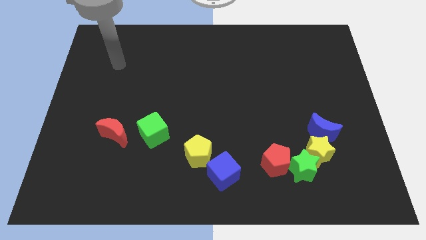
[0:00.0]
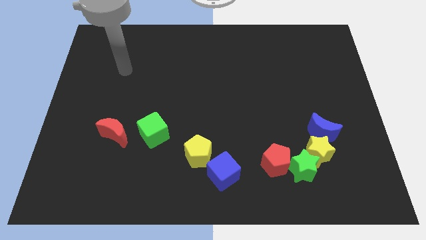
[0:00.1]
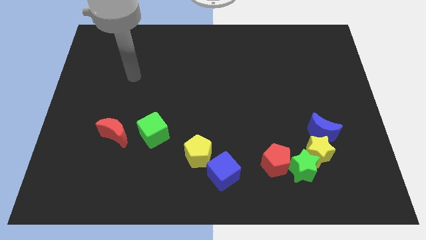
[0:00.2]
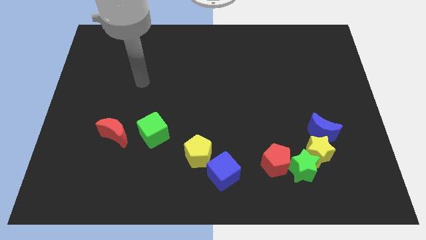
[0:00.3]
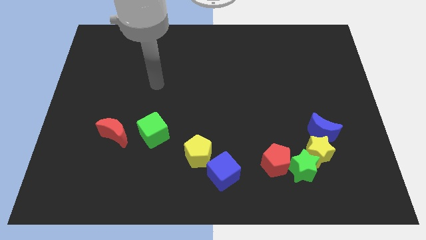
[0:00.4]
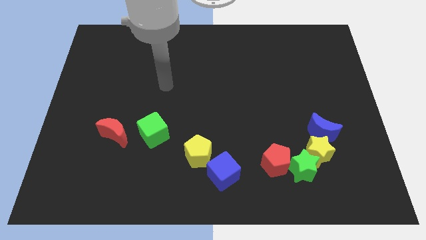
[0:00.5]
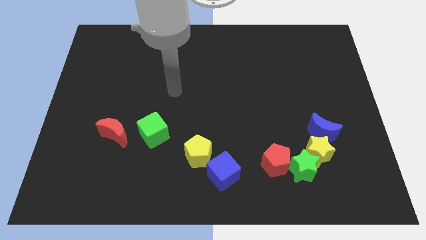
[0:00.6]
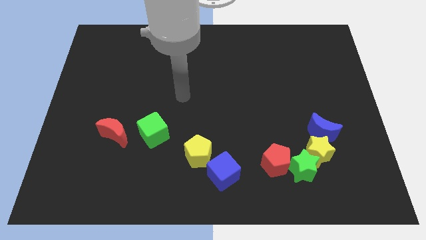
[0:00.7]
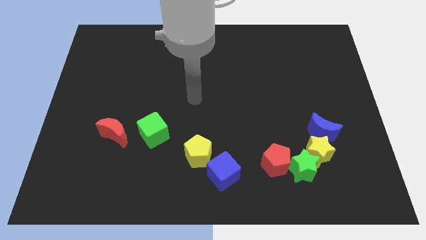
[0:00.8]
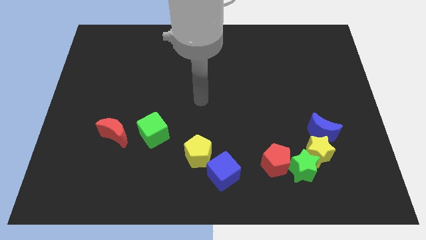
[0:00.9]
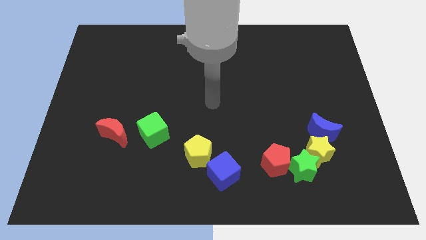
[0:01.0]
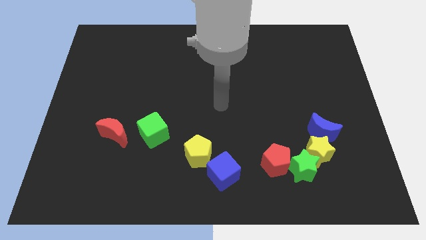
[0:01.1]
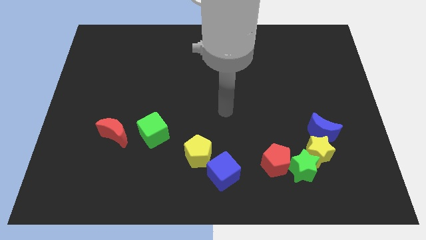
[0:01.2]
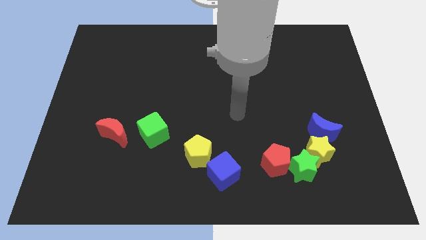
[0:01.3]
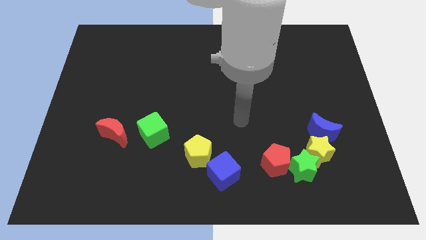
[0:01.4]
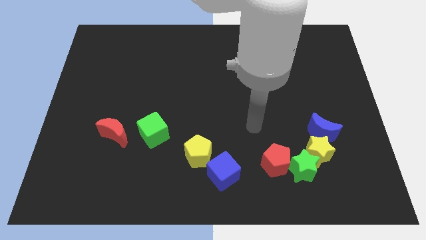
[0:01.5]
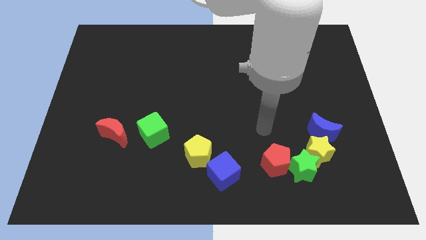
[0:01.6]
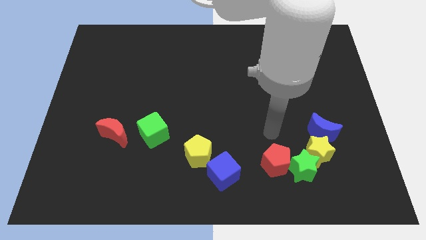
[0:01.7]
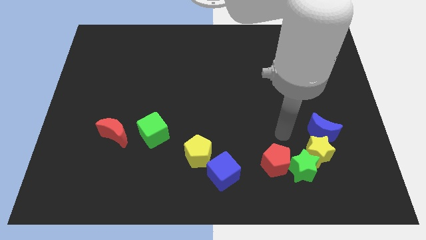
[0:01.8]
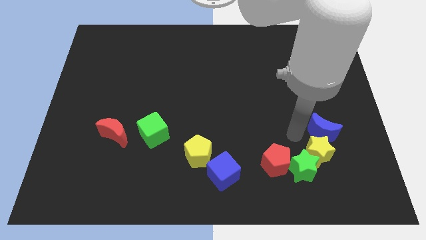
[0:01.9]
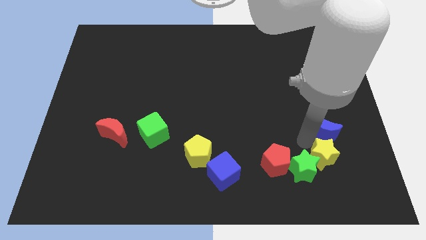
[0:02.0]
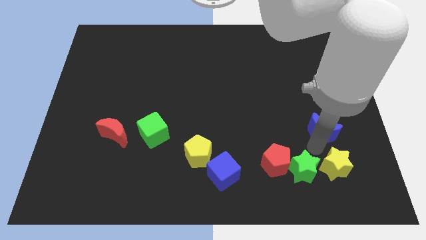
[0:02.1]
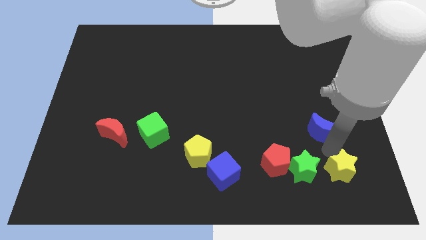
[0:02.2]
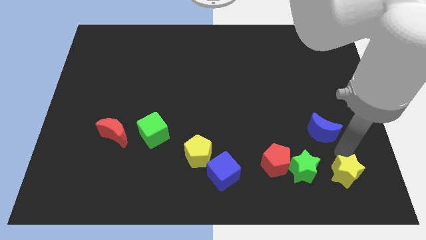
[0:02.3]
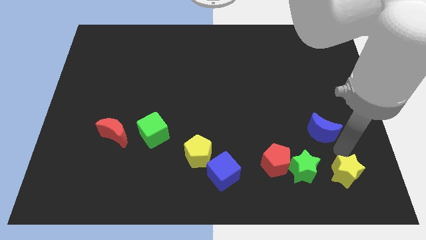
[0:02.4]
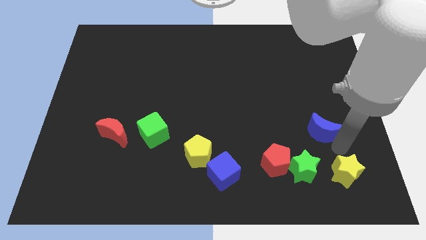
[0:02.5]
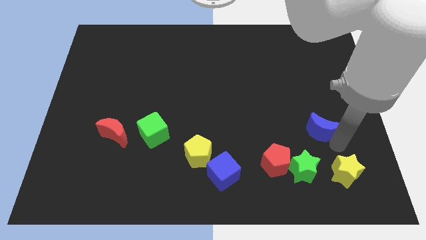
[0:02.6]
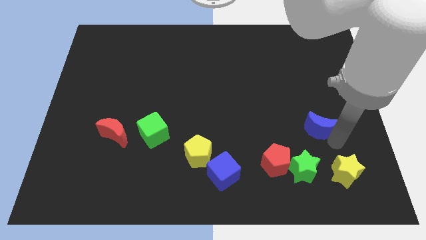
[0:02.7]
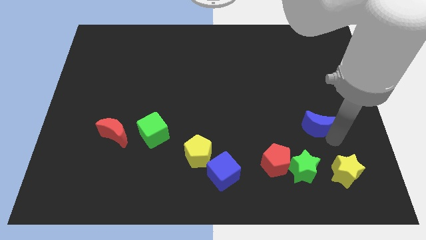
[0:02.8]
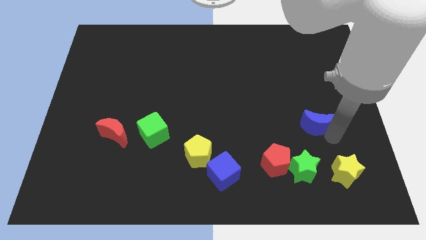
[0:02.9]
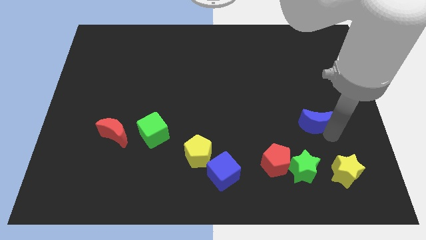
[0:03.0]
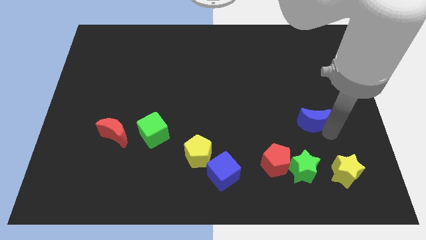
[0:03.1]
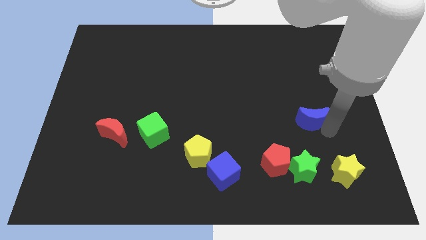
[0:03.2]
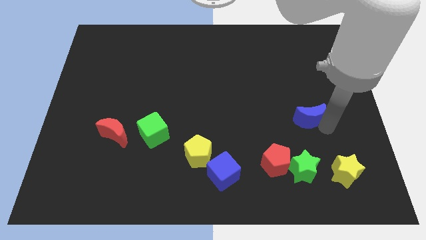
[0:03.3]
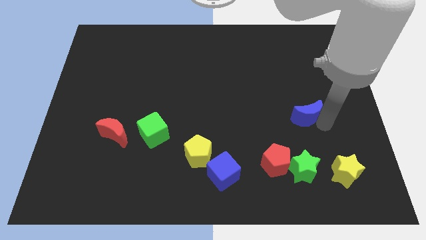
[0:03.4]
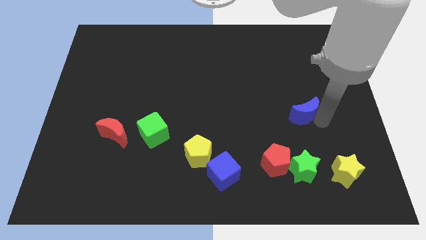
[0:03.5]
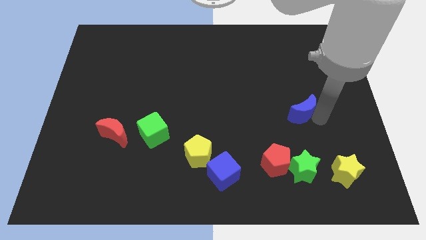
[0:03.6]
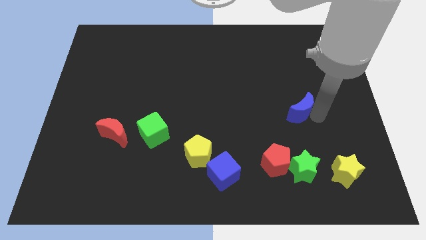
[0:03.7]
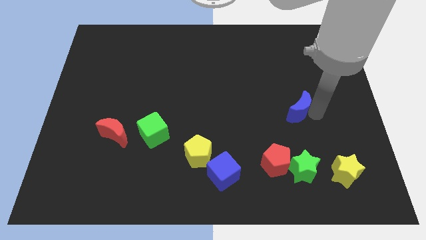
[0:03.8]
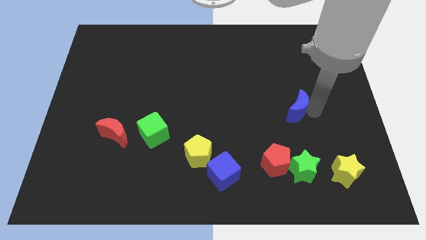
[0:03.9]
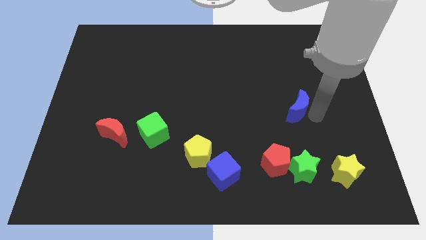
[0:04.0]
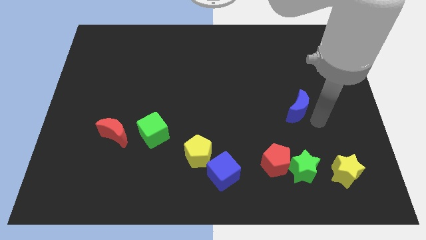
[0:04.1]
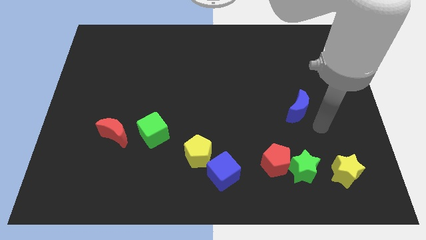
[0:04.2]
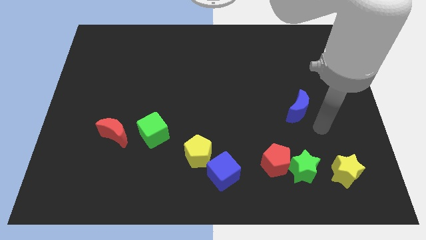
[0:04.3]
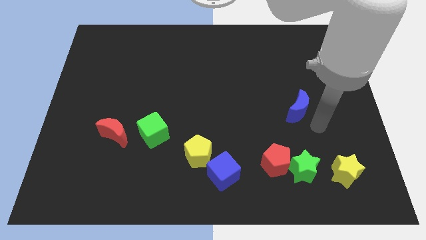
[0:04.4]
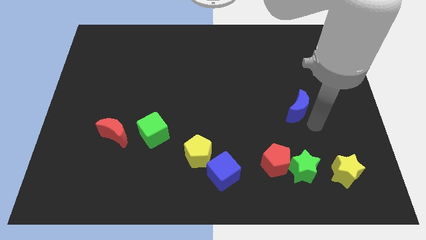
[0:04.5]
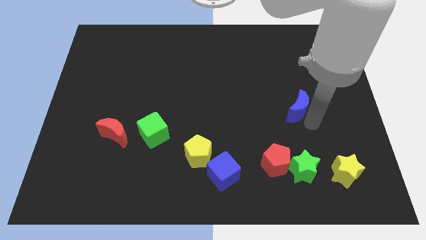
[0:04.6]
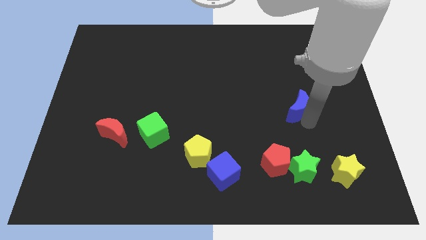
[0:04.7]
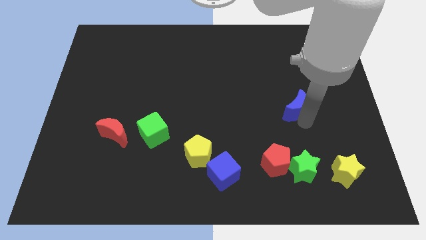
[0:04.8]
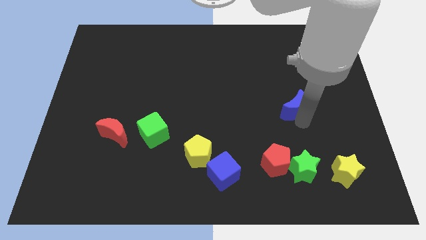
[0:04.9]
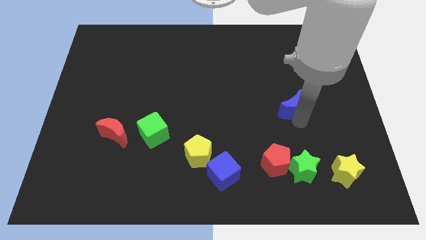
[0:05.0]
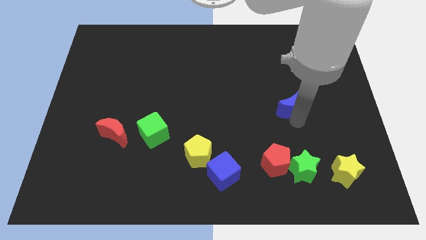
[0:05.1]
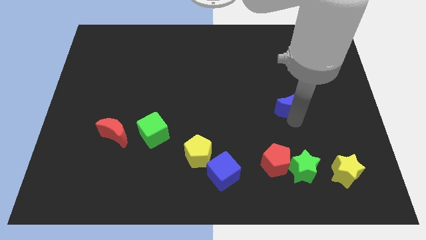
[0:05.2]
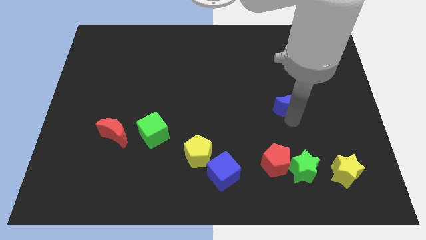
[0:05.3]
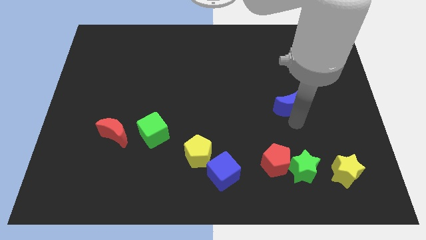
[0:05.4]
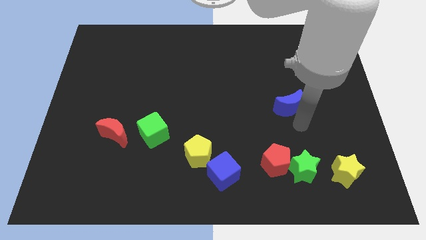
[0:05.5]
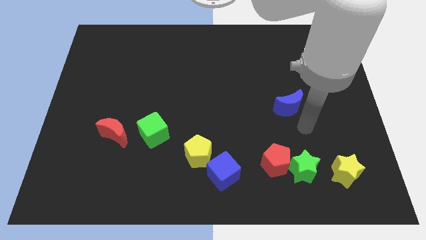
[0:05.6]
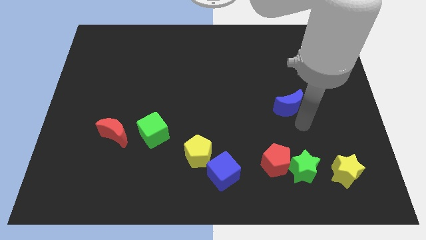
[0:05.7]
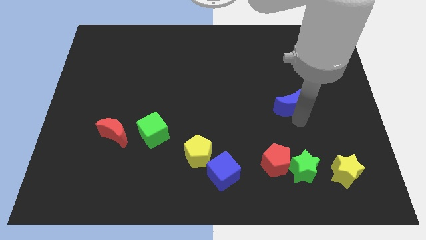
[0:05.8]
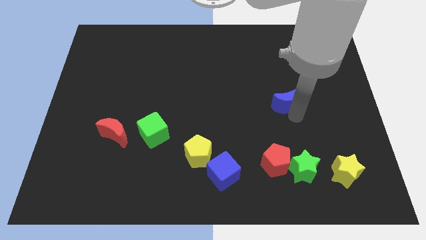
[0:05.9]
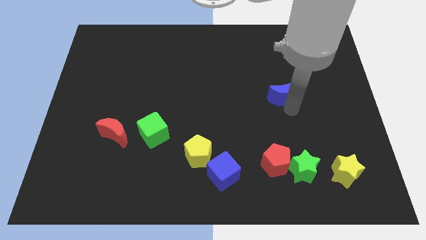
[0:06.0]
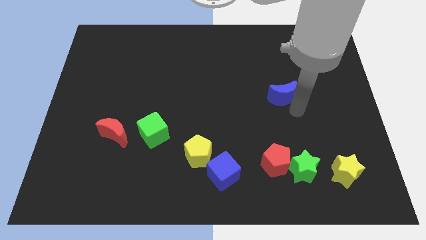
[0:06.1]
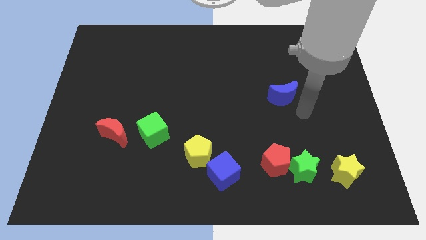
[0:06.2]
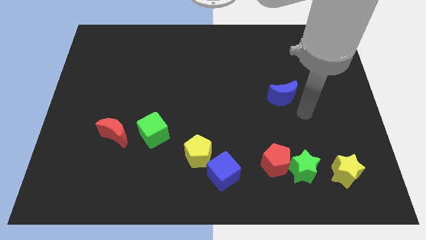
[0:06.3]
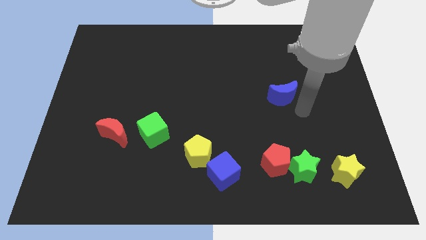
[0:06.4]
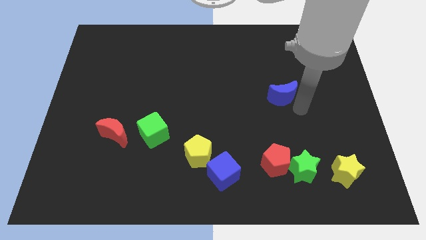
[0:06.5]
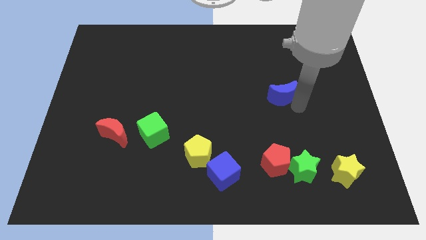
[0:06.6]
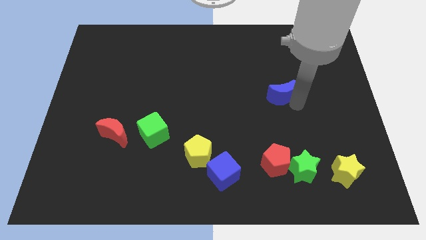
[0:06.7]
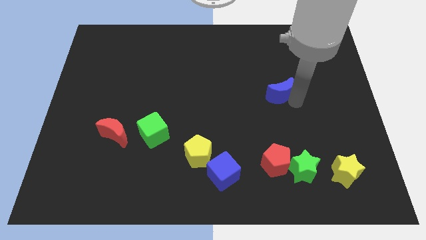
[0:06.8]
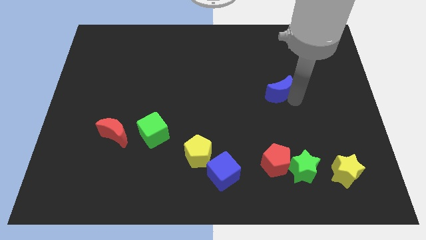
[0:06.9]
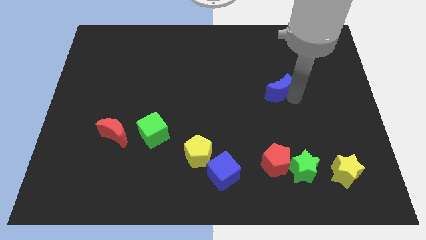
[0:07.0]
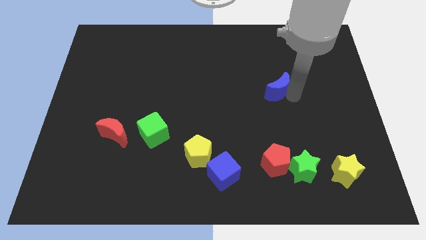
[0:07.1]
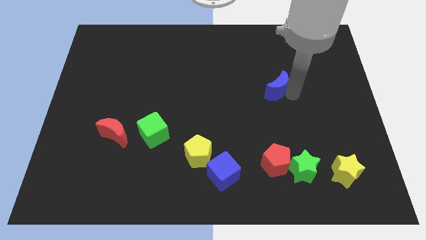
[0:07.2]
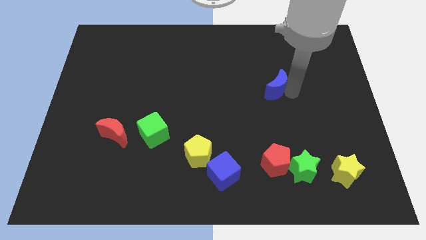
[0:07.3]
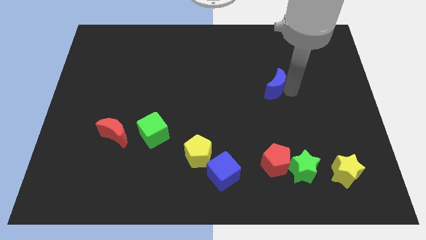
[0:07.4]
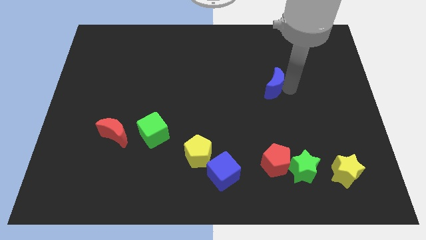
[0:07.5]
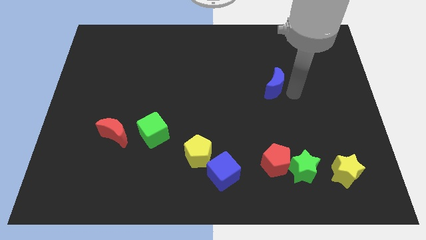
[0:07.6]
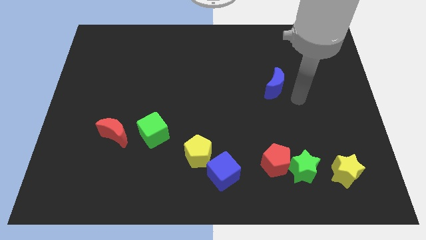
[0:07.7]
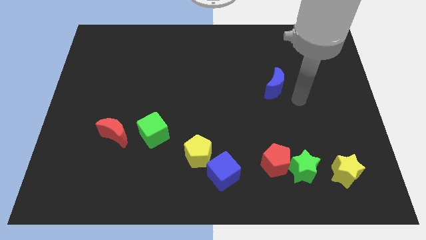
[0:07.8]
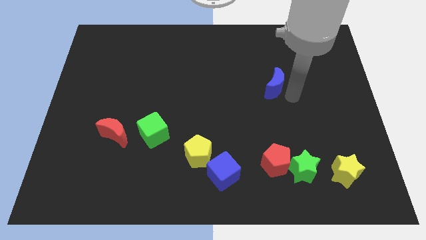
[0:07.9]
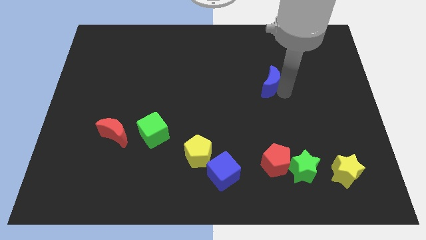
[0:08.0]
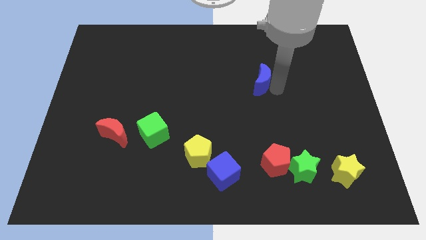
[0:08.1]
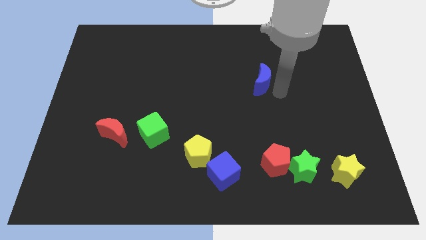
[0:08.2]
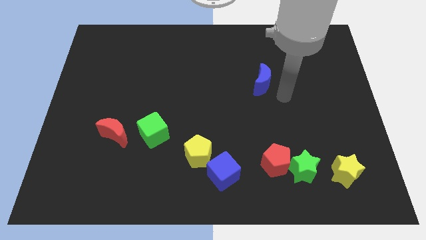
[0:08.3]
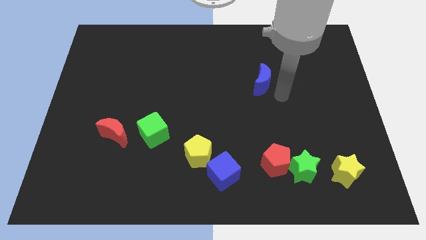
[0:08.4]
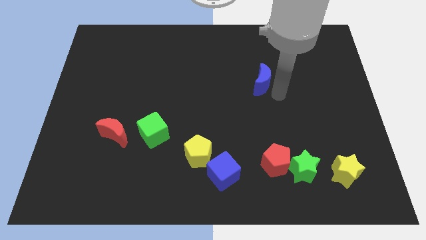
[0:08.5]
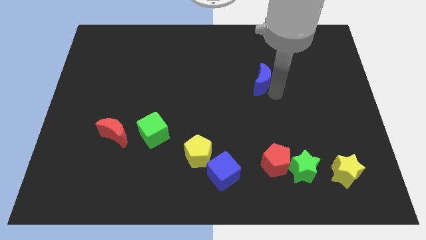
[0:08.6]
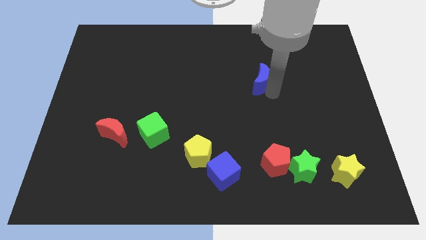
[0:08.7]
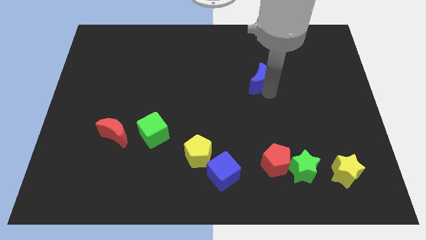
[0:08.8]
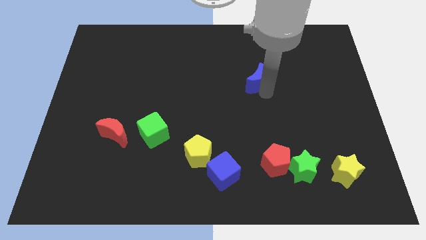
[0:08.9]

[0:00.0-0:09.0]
push the blue moon diagonally upwards and left
